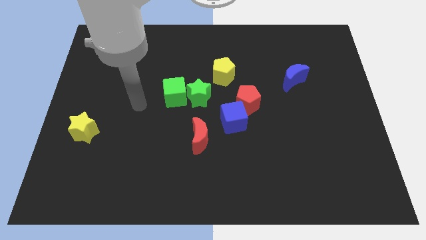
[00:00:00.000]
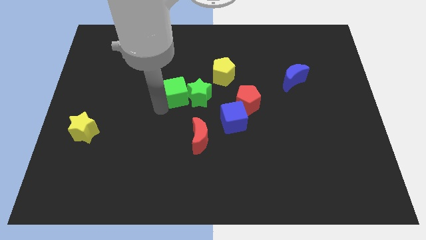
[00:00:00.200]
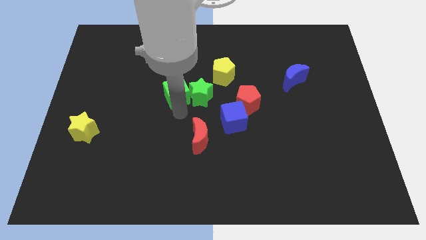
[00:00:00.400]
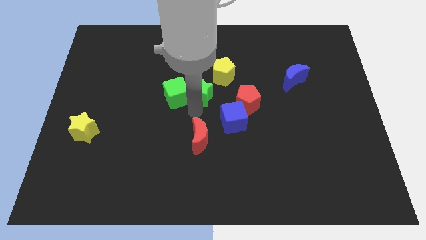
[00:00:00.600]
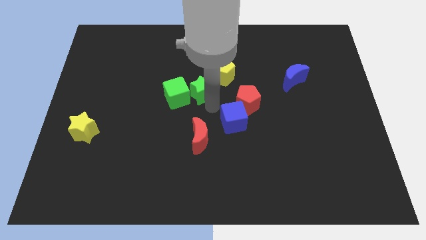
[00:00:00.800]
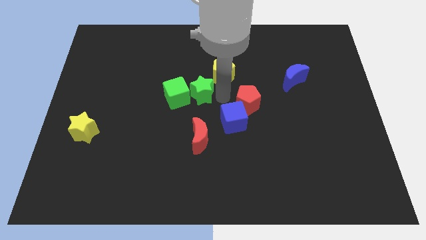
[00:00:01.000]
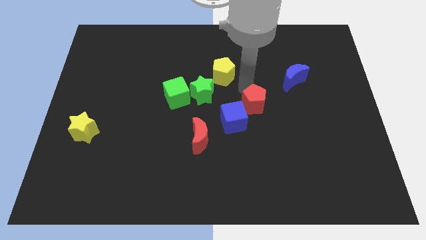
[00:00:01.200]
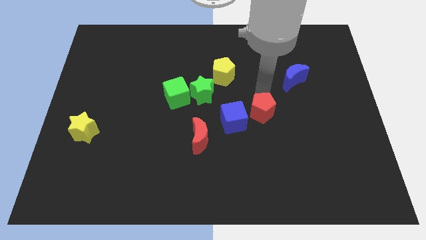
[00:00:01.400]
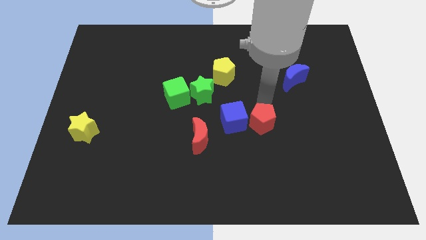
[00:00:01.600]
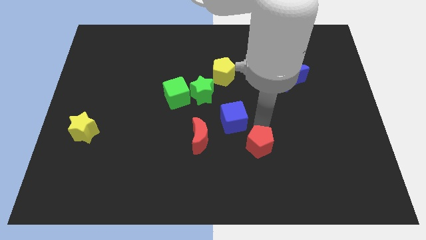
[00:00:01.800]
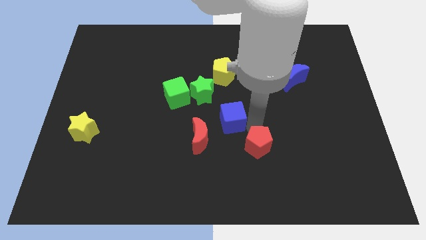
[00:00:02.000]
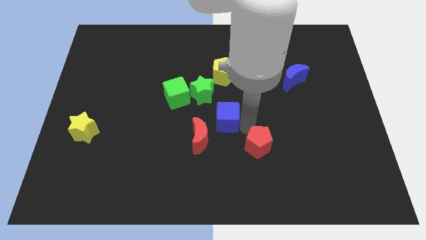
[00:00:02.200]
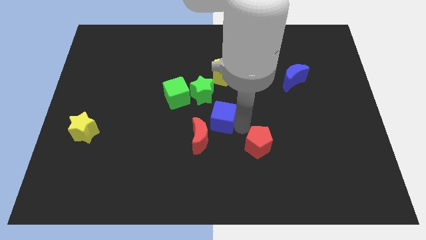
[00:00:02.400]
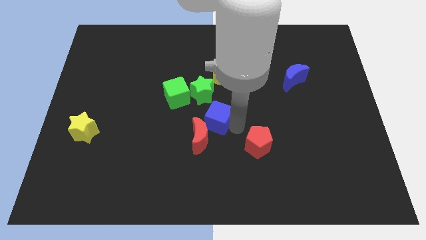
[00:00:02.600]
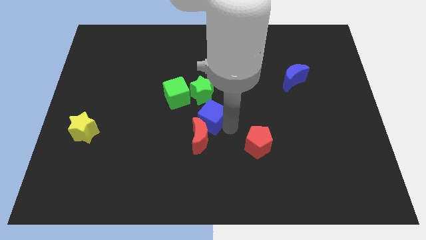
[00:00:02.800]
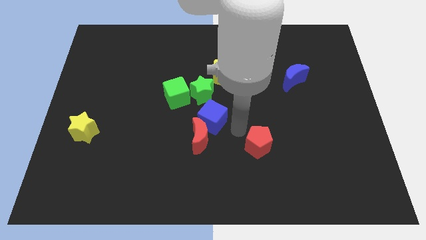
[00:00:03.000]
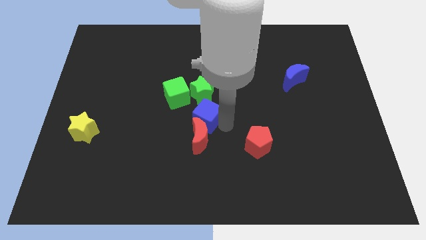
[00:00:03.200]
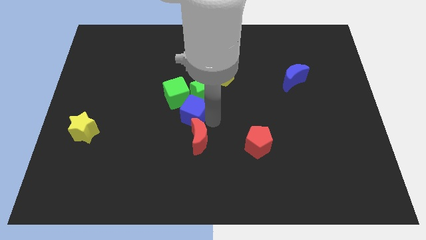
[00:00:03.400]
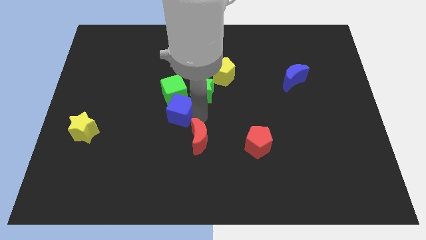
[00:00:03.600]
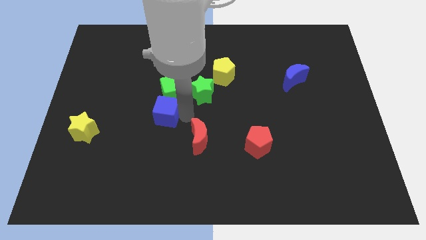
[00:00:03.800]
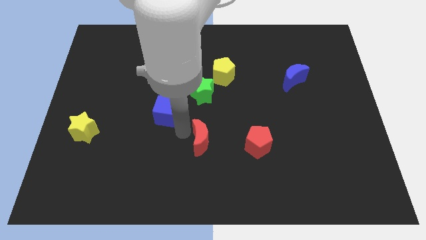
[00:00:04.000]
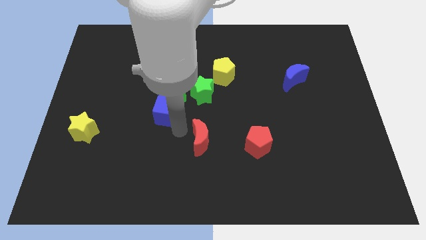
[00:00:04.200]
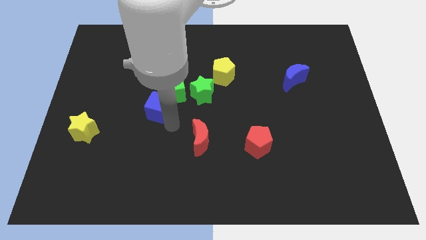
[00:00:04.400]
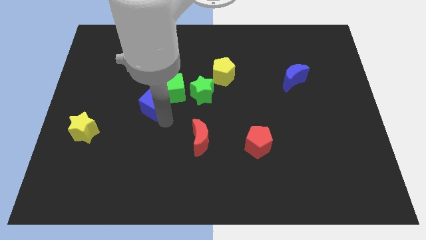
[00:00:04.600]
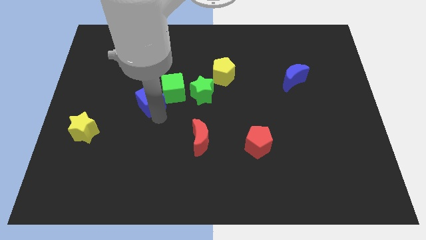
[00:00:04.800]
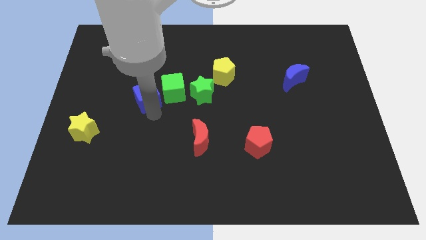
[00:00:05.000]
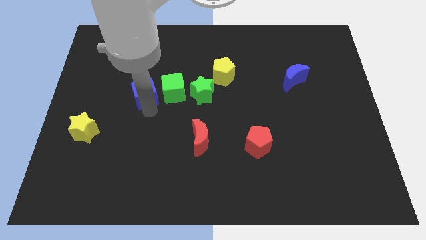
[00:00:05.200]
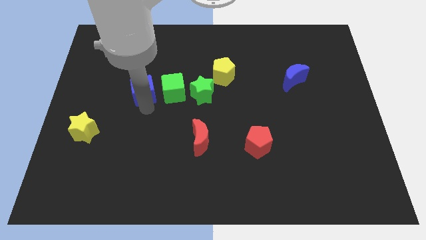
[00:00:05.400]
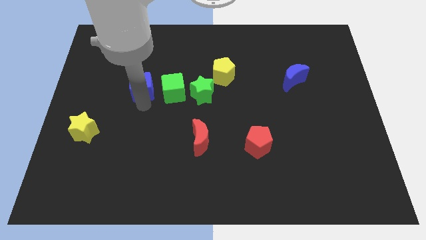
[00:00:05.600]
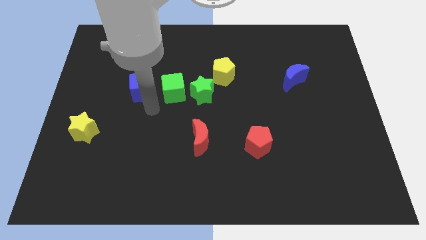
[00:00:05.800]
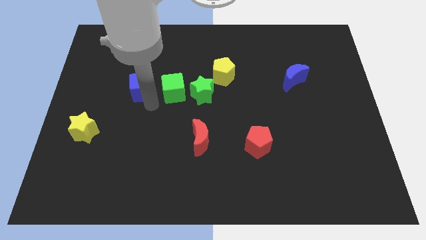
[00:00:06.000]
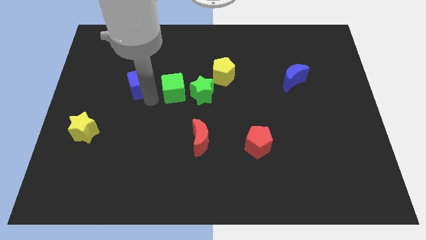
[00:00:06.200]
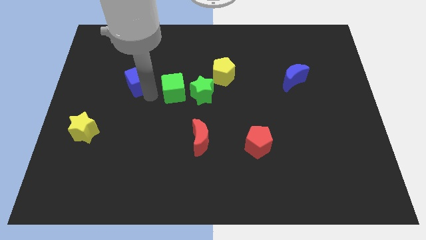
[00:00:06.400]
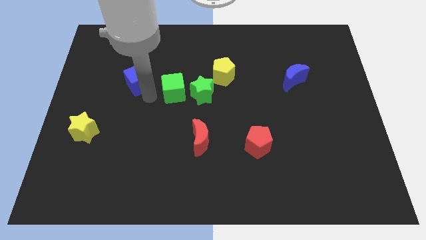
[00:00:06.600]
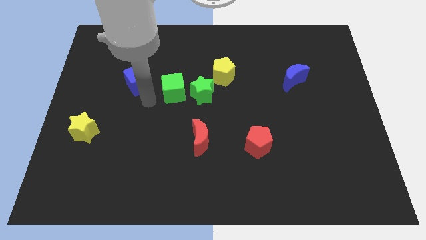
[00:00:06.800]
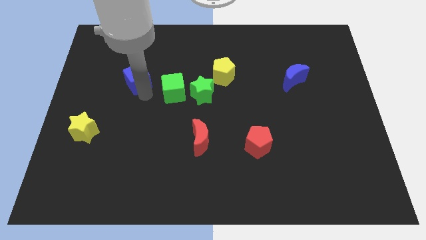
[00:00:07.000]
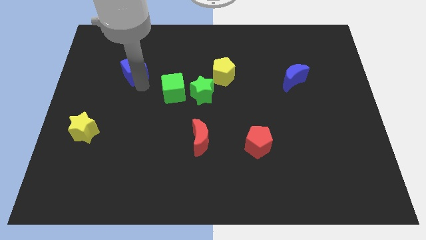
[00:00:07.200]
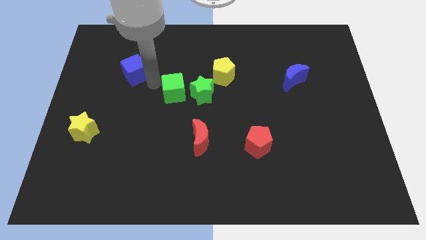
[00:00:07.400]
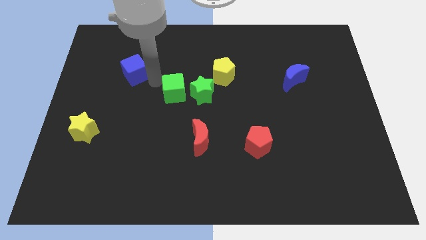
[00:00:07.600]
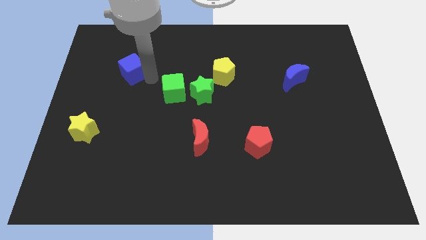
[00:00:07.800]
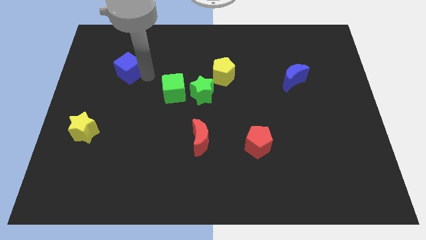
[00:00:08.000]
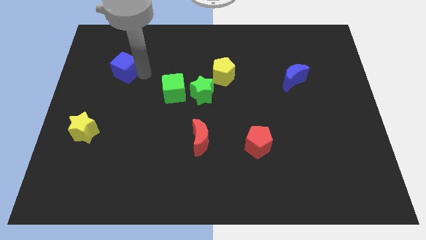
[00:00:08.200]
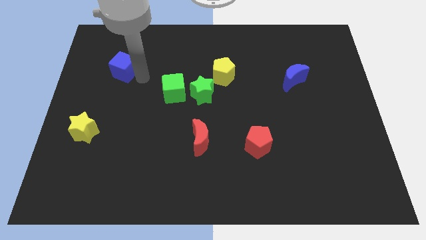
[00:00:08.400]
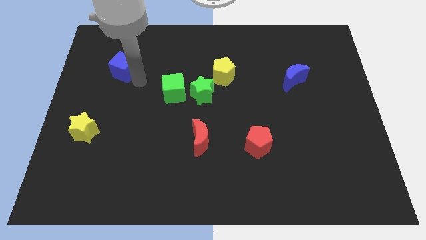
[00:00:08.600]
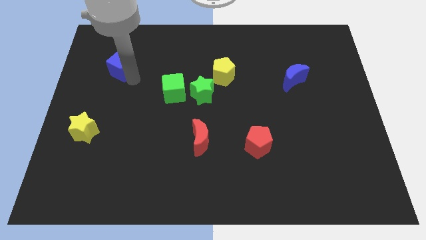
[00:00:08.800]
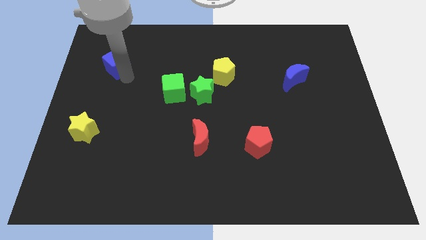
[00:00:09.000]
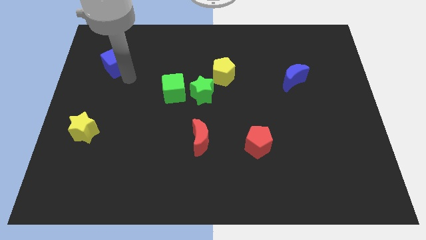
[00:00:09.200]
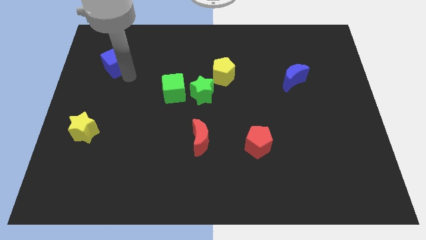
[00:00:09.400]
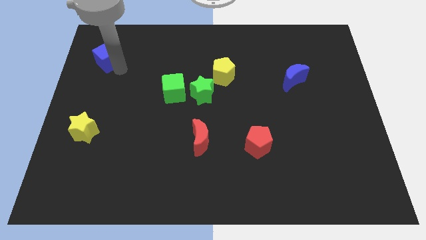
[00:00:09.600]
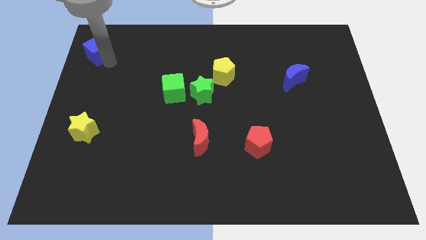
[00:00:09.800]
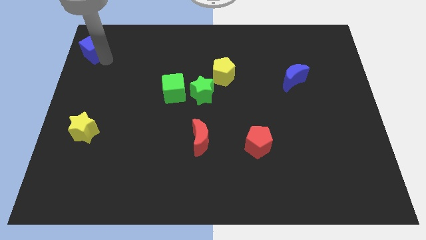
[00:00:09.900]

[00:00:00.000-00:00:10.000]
put the blue cube to the upper left corner

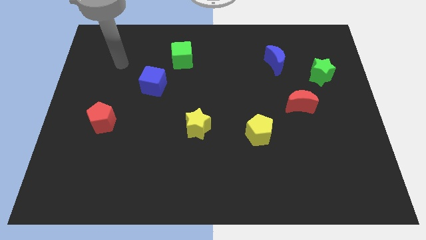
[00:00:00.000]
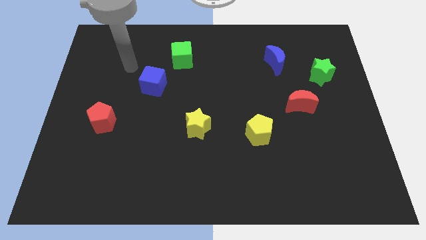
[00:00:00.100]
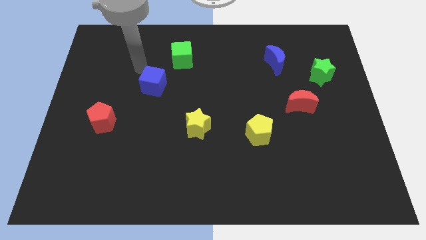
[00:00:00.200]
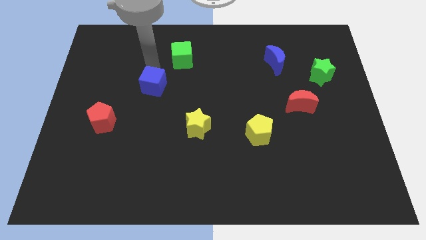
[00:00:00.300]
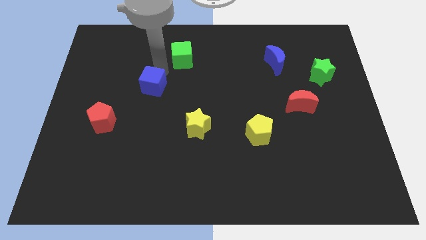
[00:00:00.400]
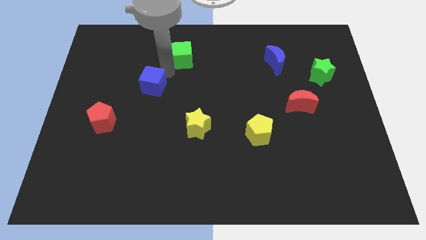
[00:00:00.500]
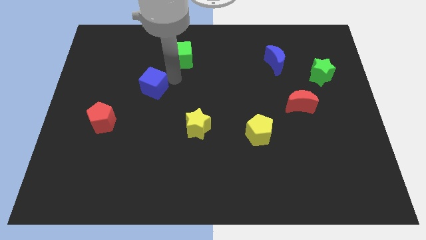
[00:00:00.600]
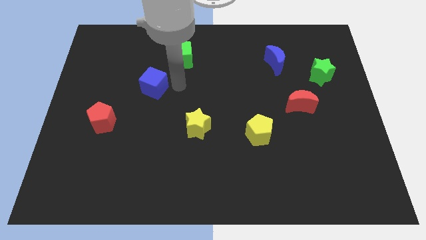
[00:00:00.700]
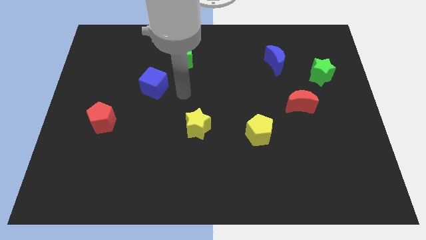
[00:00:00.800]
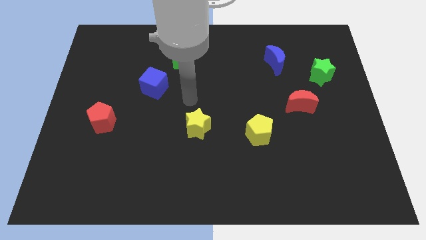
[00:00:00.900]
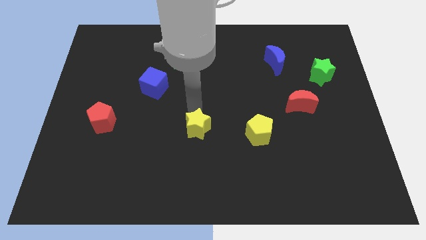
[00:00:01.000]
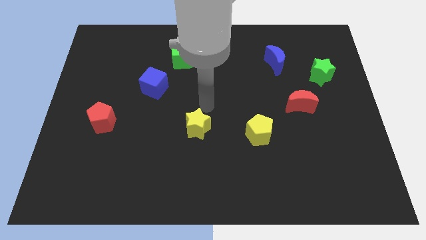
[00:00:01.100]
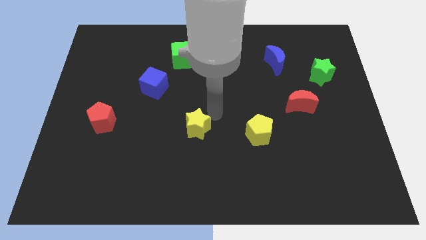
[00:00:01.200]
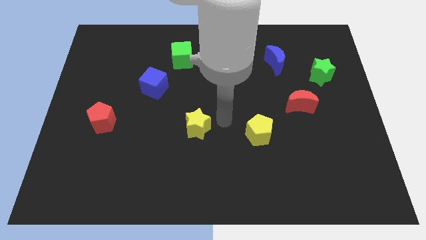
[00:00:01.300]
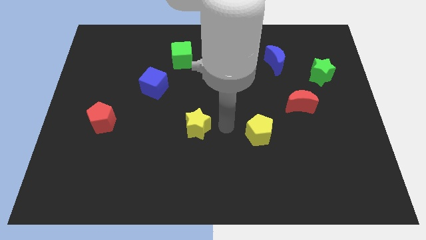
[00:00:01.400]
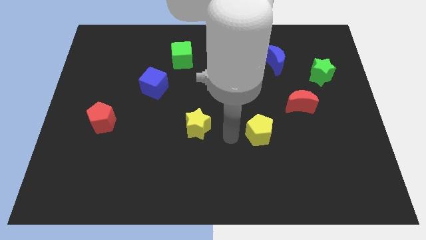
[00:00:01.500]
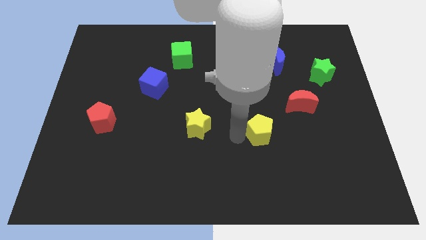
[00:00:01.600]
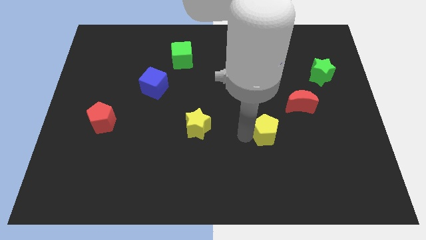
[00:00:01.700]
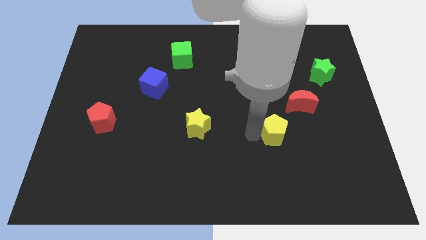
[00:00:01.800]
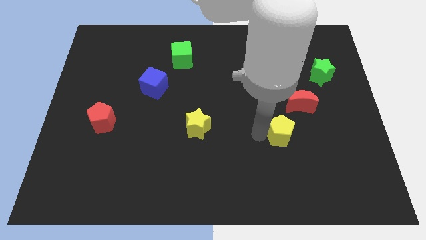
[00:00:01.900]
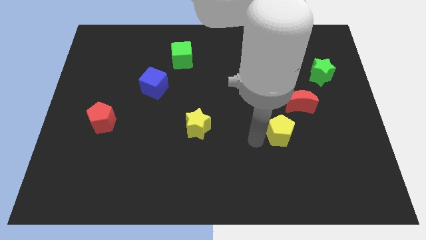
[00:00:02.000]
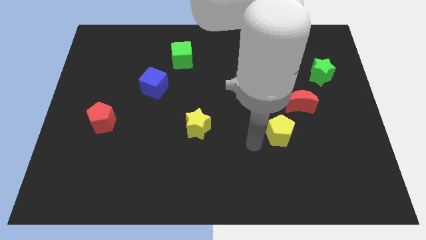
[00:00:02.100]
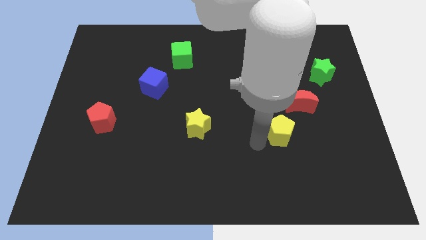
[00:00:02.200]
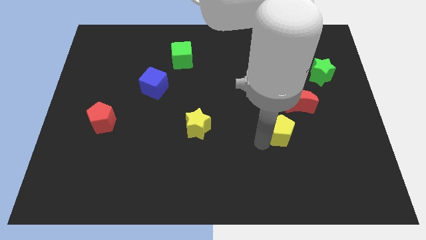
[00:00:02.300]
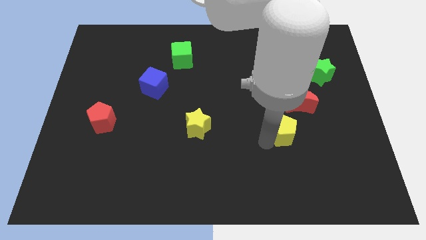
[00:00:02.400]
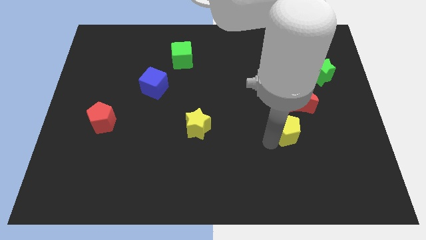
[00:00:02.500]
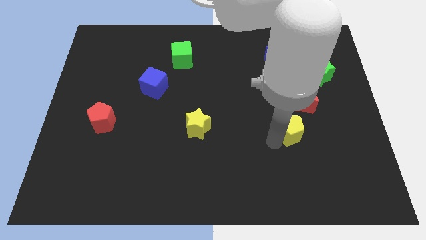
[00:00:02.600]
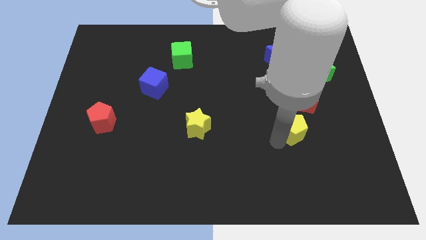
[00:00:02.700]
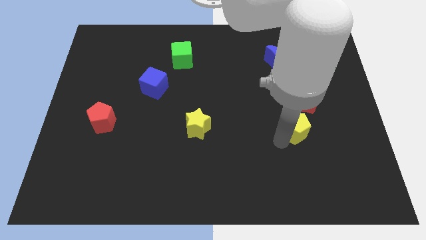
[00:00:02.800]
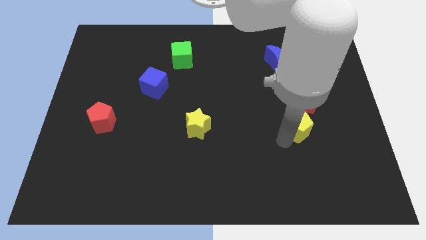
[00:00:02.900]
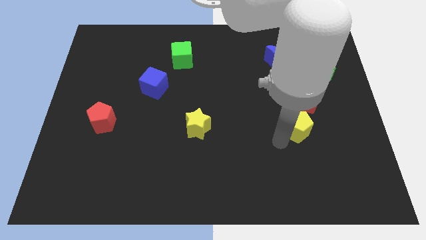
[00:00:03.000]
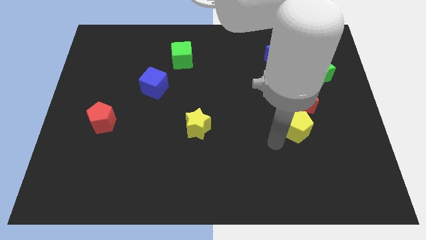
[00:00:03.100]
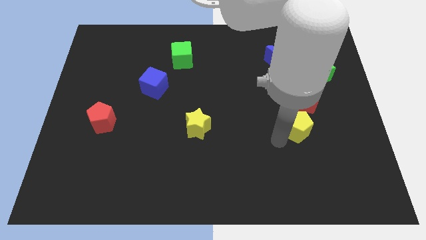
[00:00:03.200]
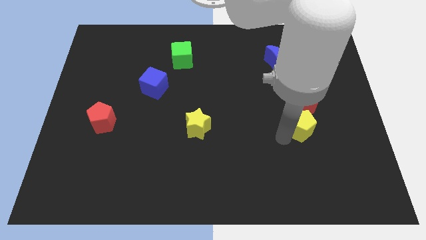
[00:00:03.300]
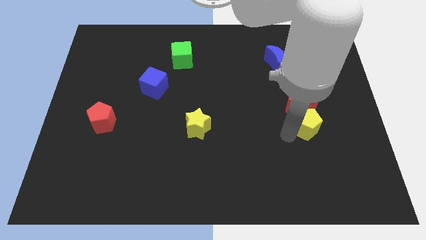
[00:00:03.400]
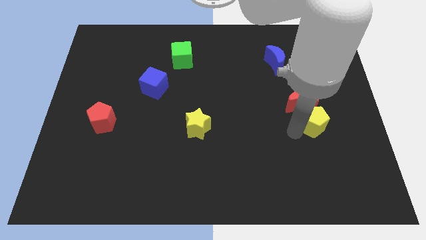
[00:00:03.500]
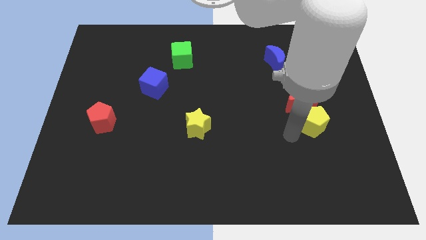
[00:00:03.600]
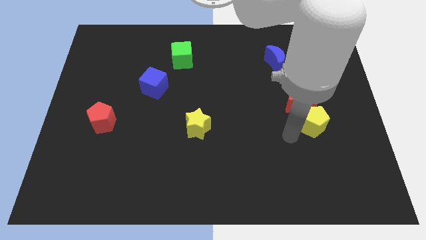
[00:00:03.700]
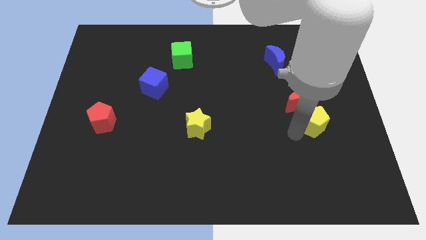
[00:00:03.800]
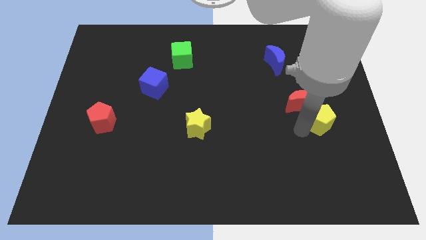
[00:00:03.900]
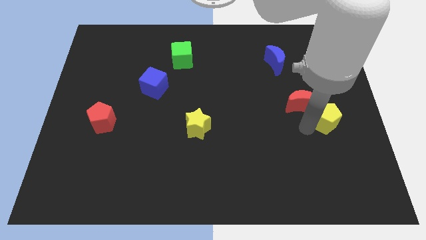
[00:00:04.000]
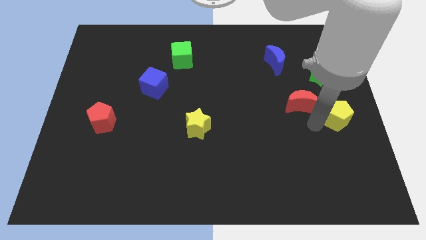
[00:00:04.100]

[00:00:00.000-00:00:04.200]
slide the yellow pentagon to the right side of the board
